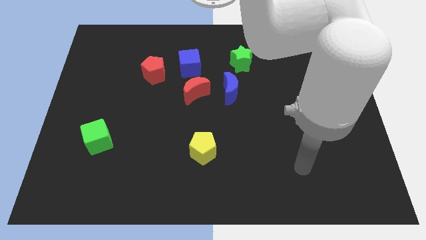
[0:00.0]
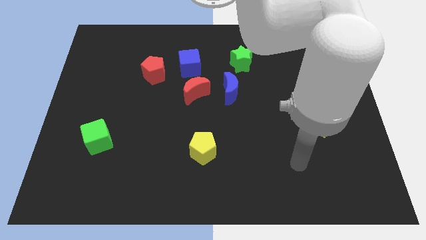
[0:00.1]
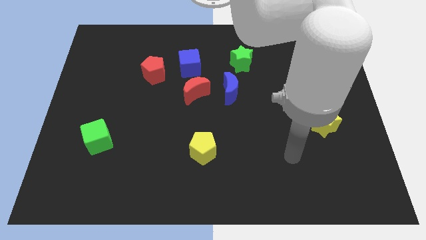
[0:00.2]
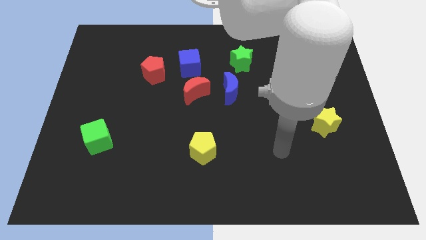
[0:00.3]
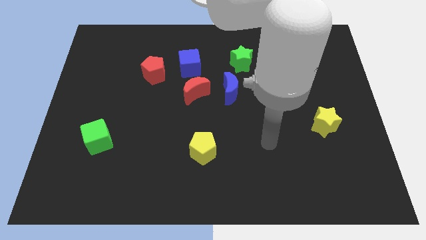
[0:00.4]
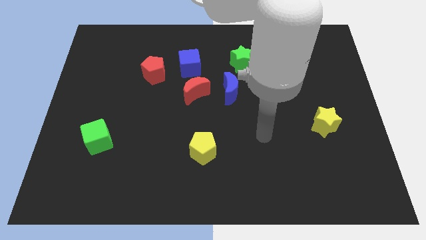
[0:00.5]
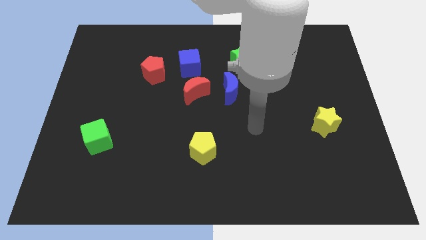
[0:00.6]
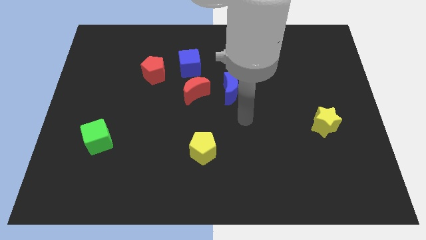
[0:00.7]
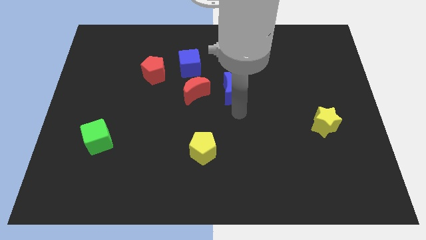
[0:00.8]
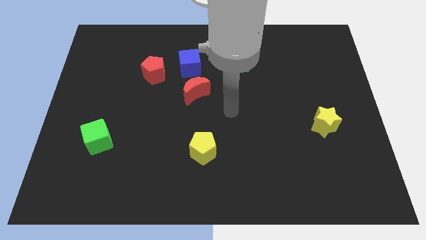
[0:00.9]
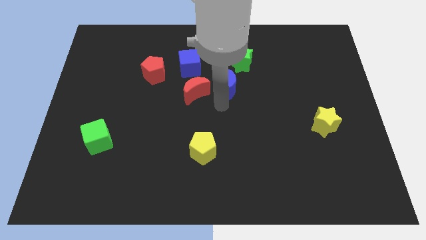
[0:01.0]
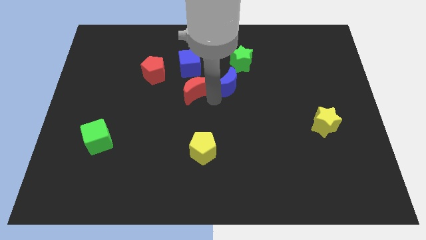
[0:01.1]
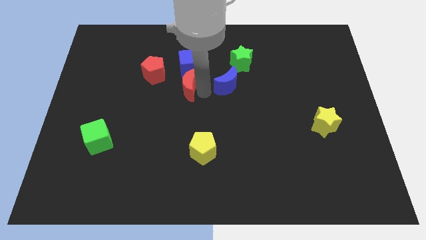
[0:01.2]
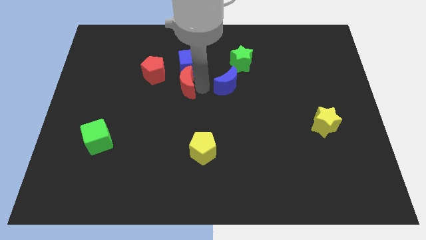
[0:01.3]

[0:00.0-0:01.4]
move the blue moon away from the red moon

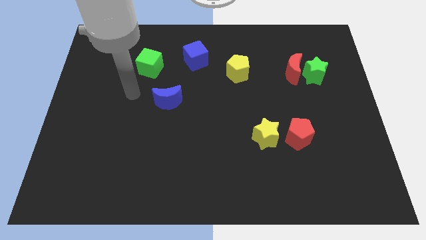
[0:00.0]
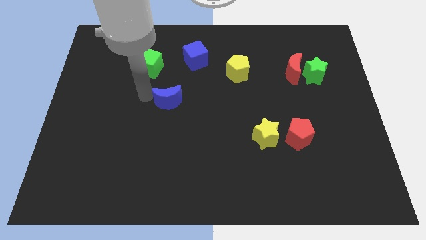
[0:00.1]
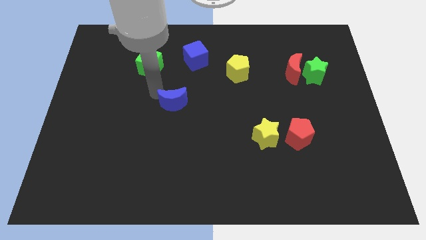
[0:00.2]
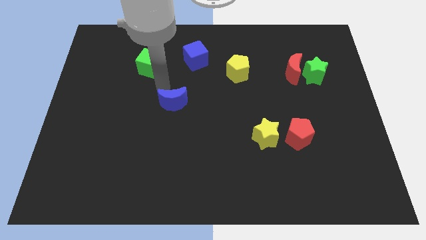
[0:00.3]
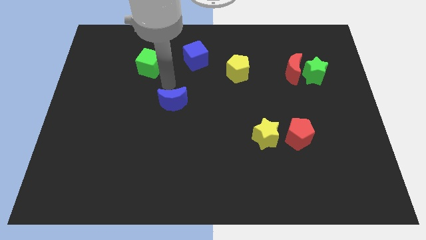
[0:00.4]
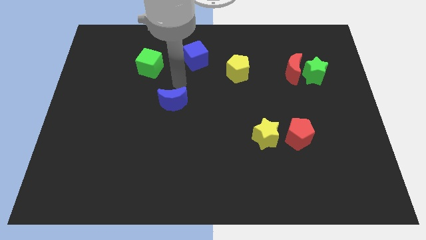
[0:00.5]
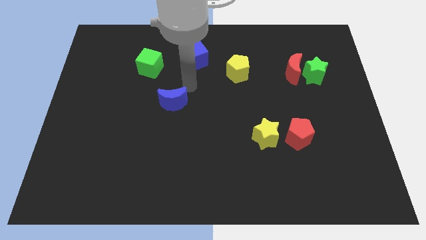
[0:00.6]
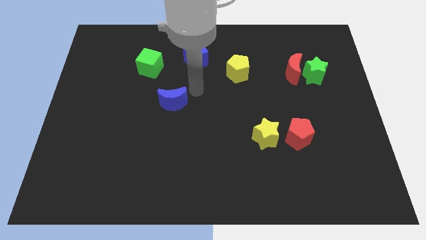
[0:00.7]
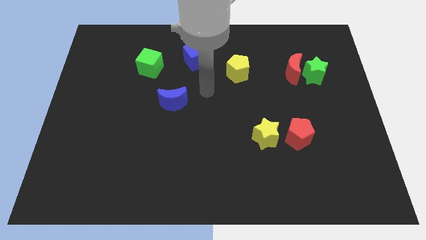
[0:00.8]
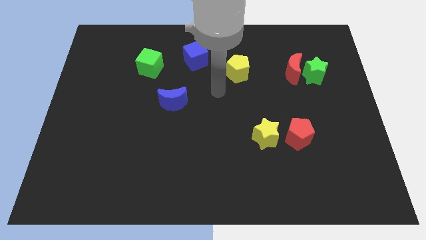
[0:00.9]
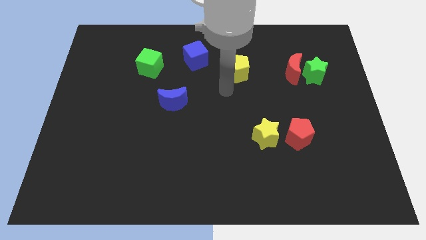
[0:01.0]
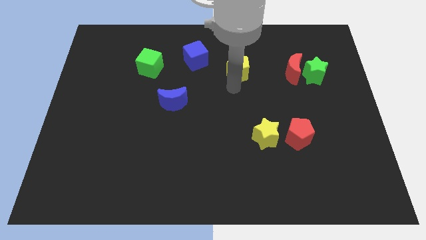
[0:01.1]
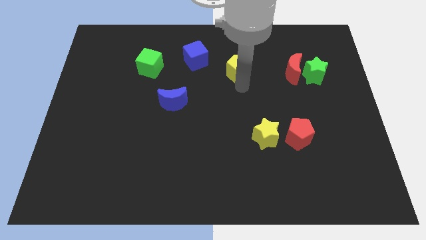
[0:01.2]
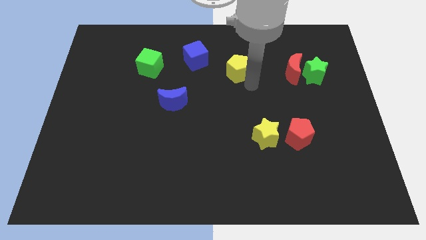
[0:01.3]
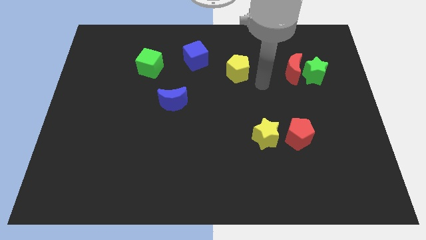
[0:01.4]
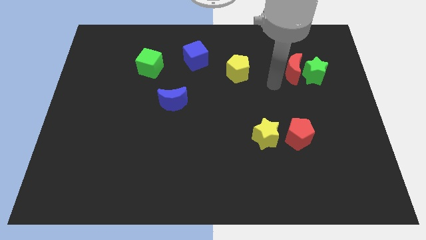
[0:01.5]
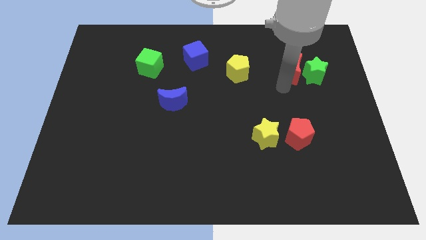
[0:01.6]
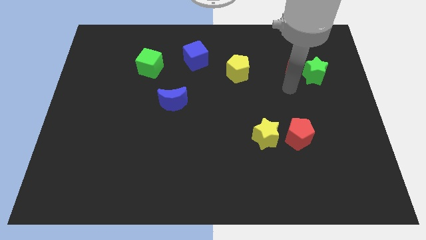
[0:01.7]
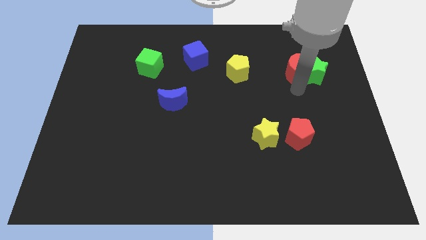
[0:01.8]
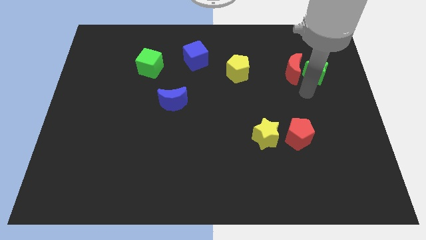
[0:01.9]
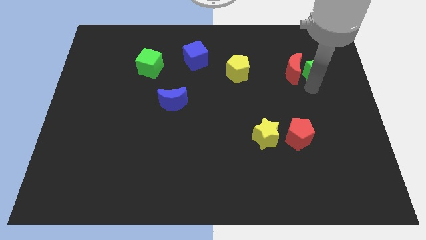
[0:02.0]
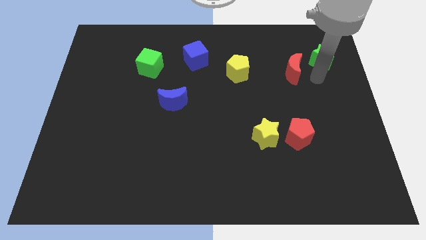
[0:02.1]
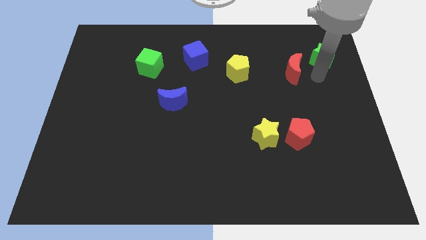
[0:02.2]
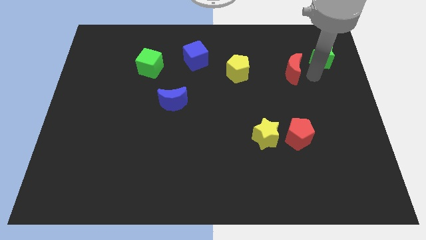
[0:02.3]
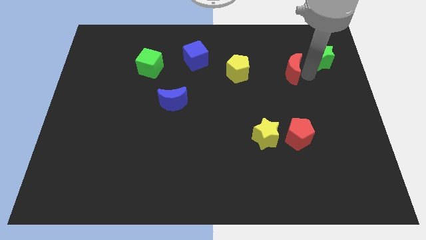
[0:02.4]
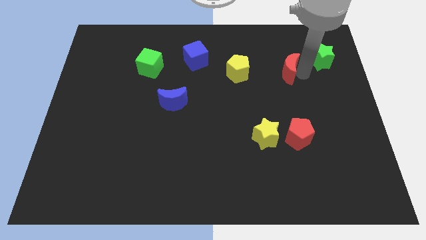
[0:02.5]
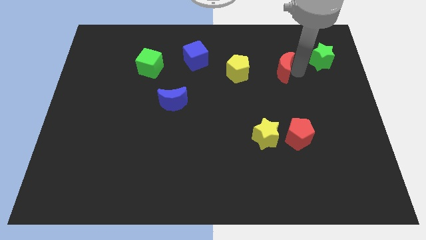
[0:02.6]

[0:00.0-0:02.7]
move the red moon away from the green star
